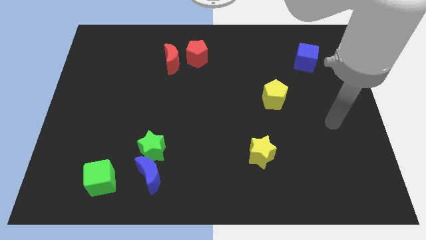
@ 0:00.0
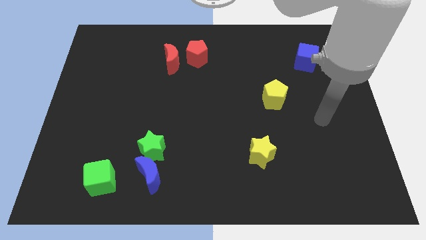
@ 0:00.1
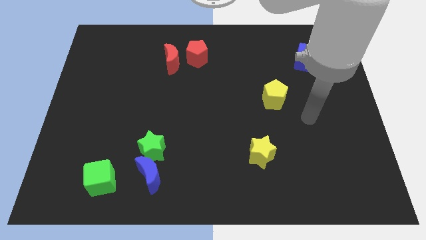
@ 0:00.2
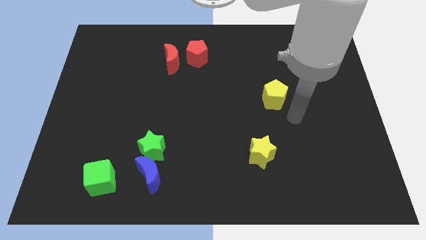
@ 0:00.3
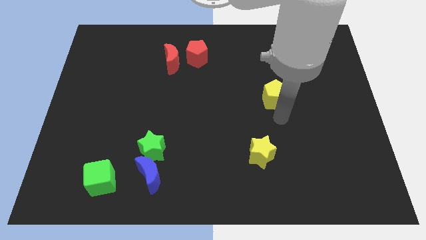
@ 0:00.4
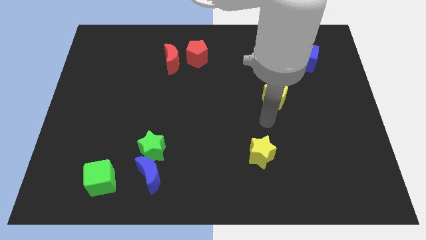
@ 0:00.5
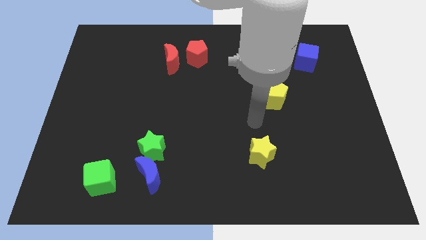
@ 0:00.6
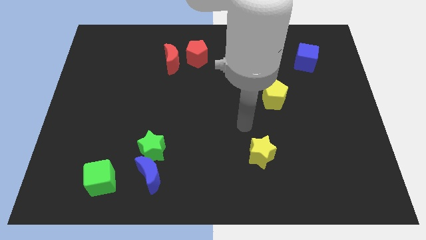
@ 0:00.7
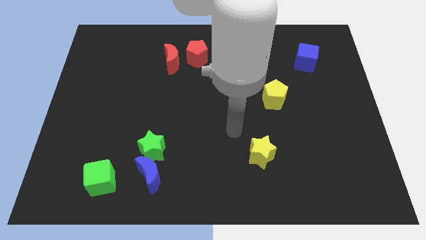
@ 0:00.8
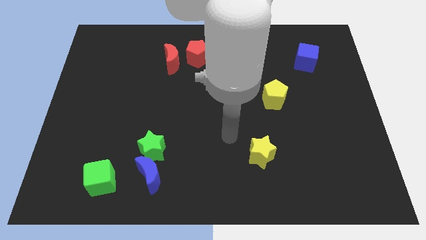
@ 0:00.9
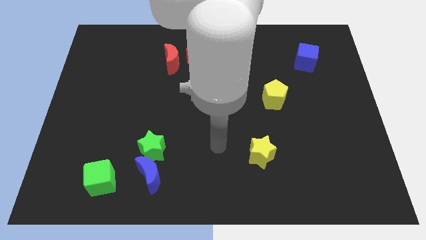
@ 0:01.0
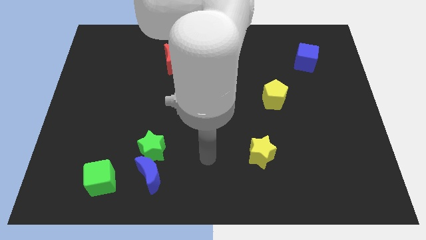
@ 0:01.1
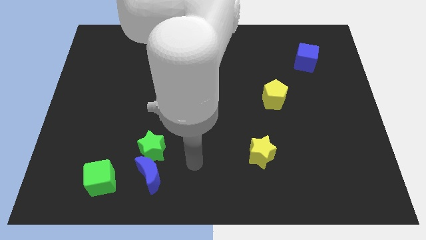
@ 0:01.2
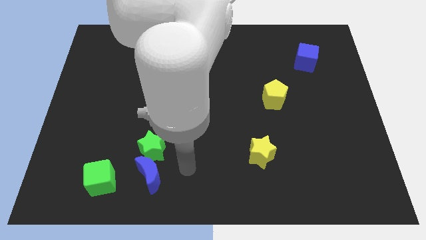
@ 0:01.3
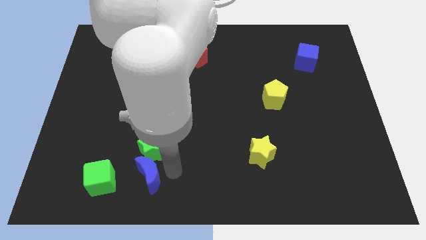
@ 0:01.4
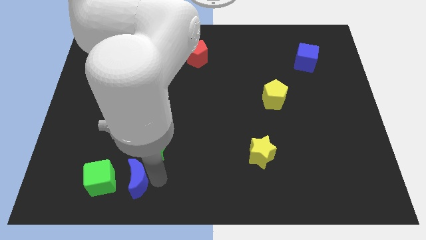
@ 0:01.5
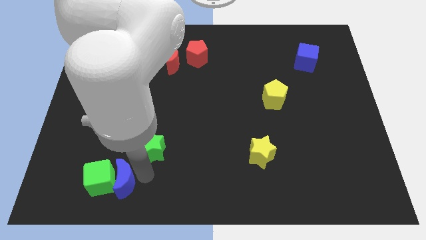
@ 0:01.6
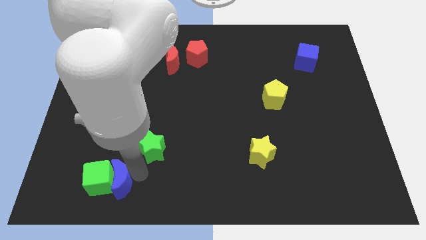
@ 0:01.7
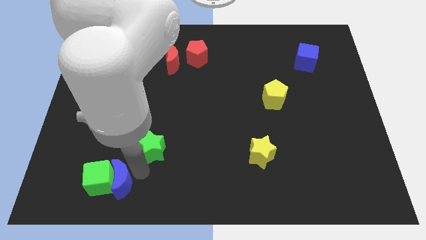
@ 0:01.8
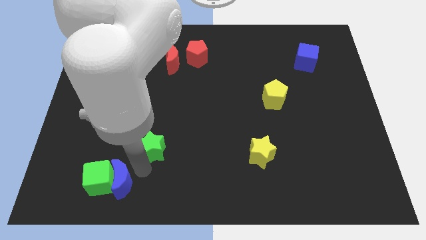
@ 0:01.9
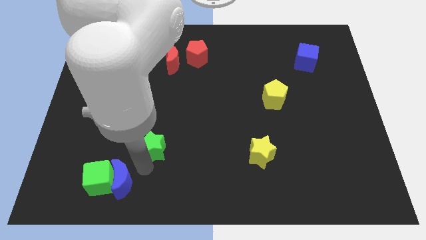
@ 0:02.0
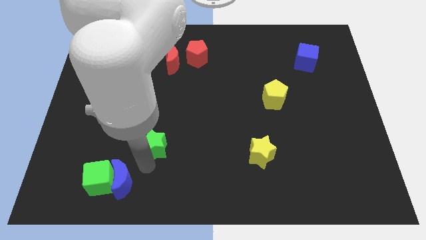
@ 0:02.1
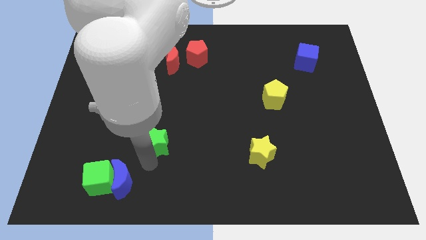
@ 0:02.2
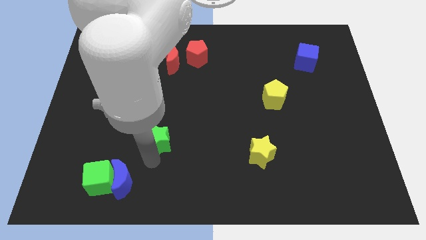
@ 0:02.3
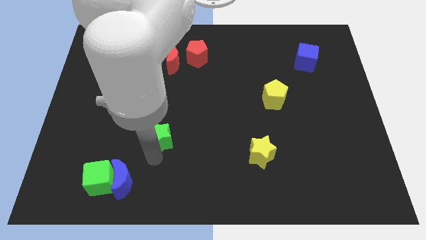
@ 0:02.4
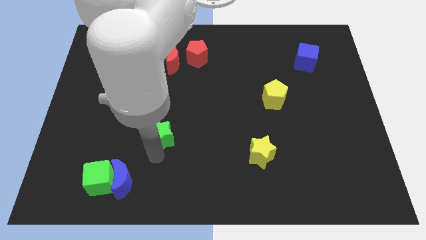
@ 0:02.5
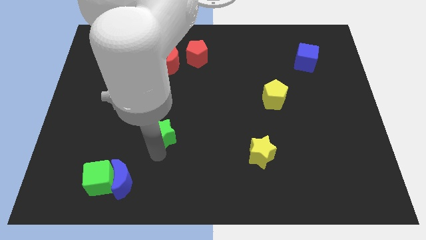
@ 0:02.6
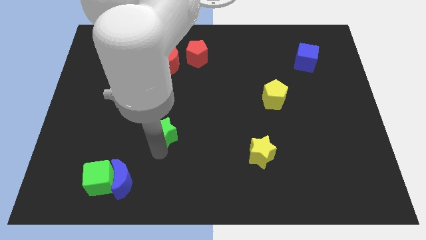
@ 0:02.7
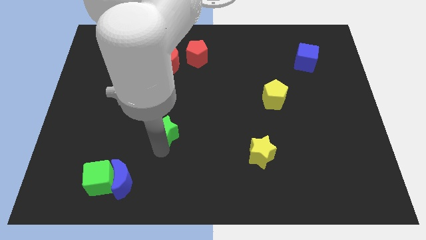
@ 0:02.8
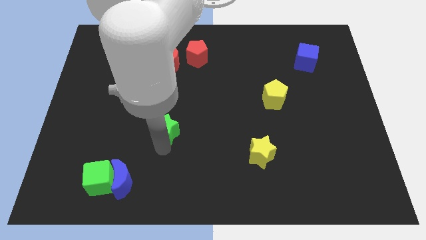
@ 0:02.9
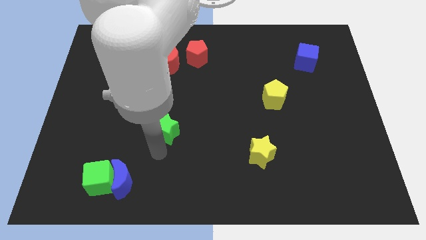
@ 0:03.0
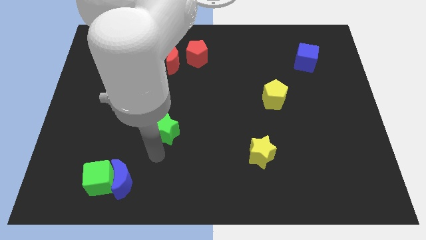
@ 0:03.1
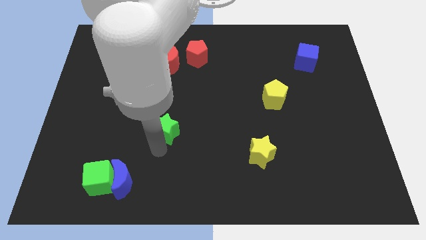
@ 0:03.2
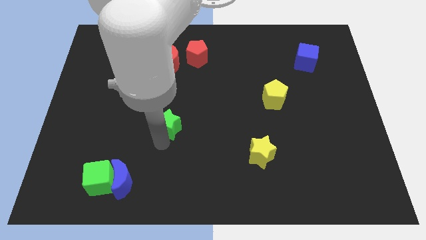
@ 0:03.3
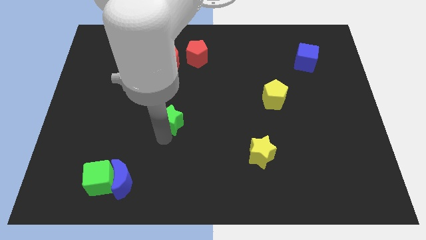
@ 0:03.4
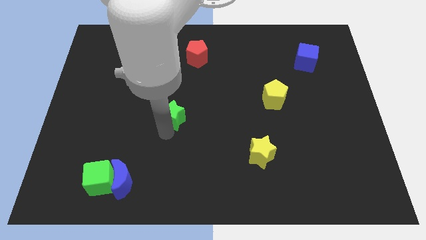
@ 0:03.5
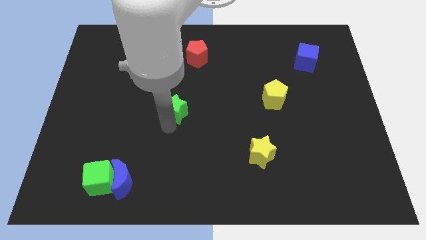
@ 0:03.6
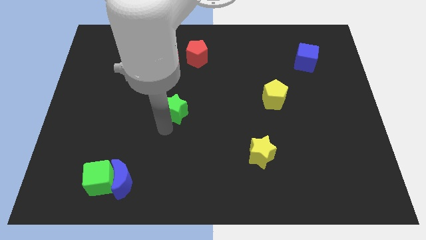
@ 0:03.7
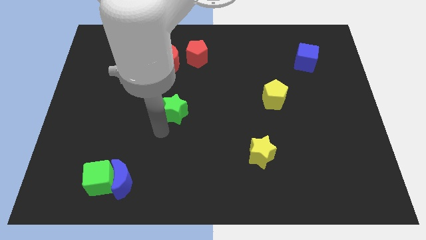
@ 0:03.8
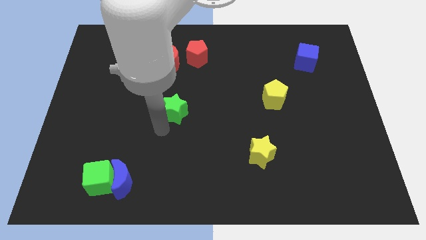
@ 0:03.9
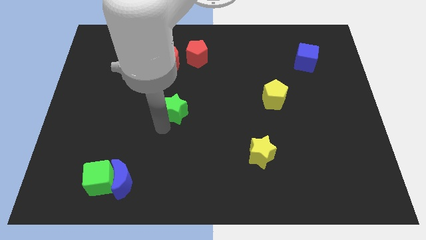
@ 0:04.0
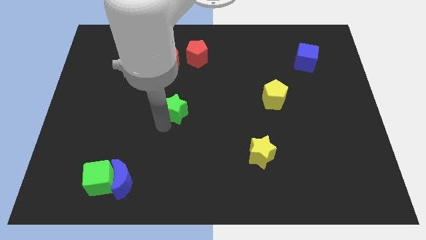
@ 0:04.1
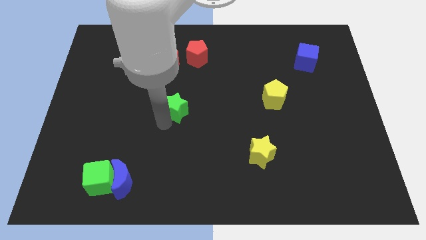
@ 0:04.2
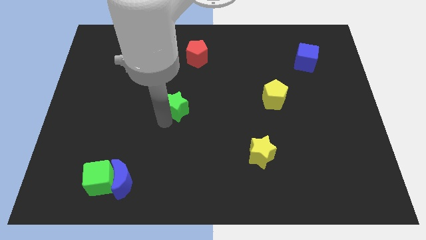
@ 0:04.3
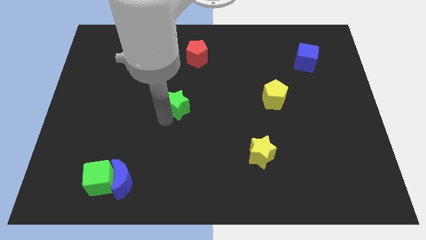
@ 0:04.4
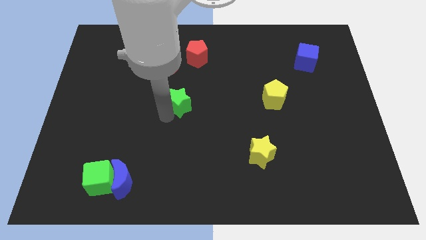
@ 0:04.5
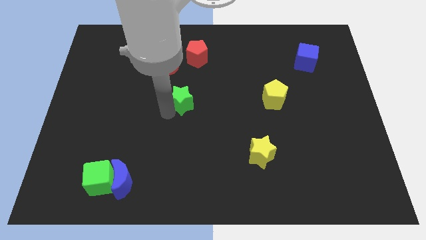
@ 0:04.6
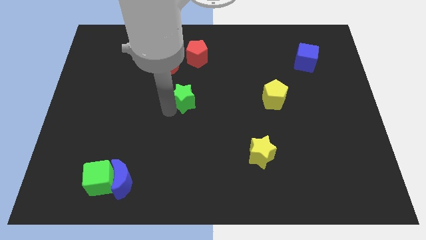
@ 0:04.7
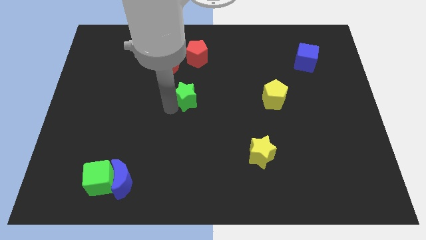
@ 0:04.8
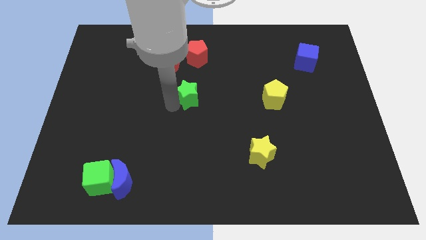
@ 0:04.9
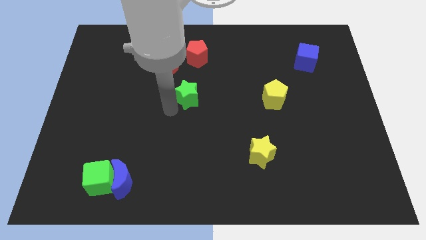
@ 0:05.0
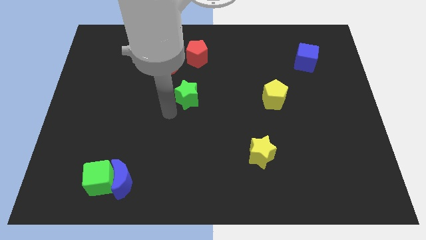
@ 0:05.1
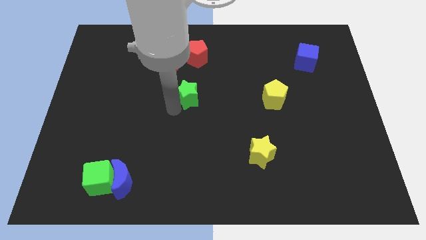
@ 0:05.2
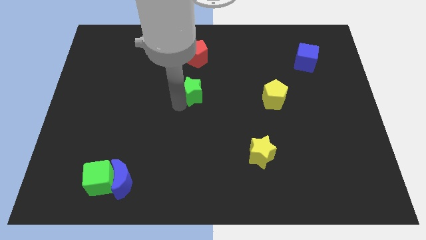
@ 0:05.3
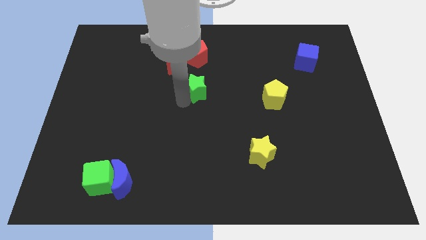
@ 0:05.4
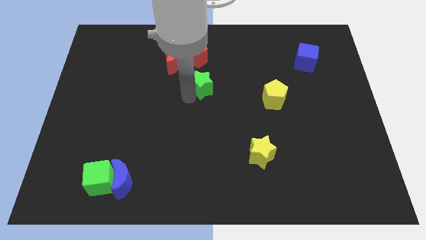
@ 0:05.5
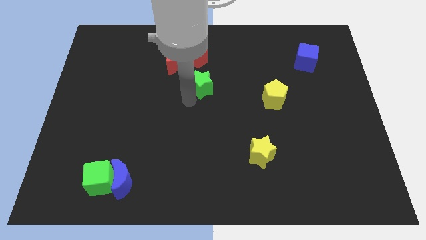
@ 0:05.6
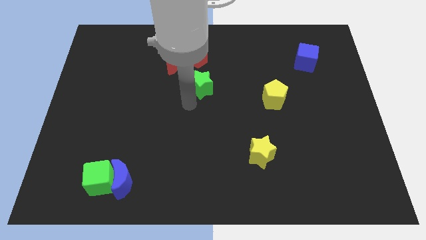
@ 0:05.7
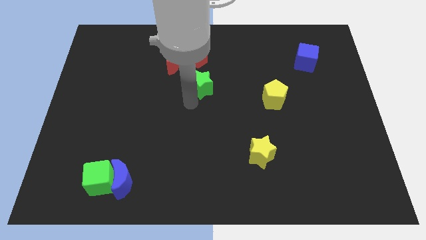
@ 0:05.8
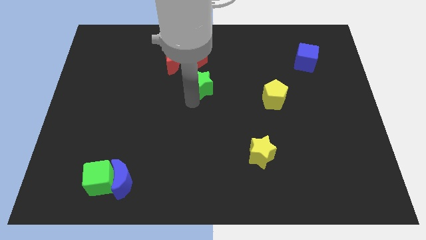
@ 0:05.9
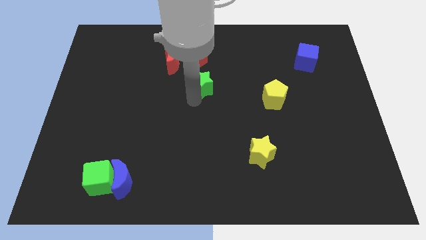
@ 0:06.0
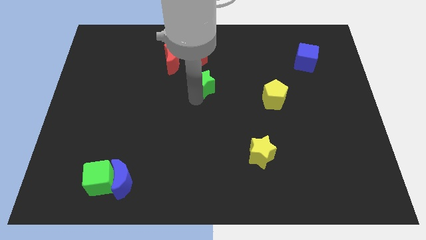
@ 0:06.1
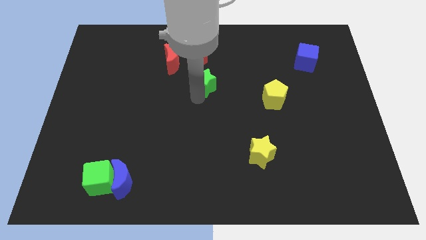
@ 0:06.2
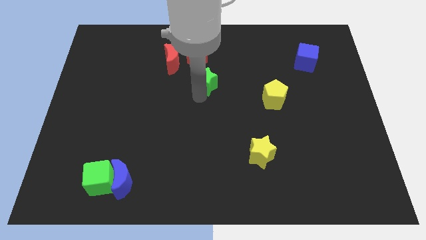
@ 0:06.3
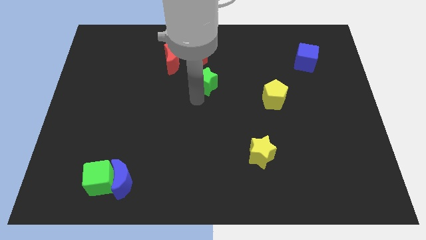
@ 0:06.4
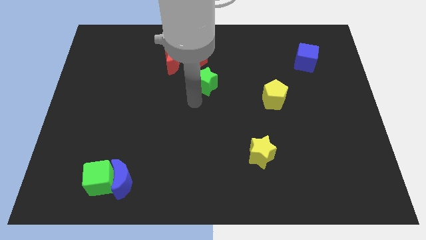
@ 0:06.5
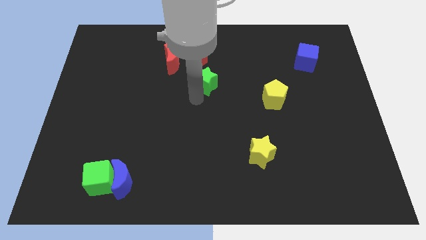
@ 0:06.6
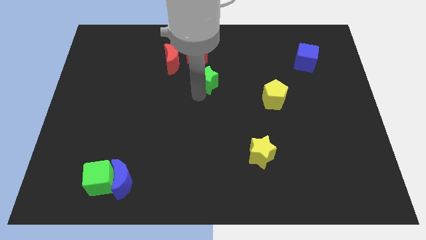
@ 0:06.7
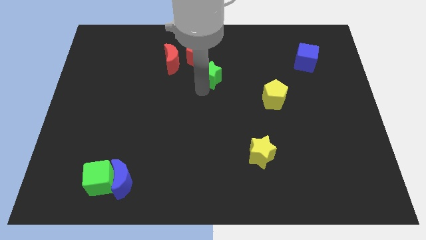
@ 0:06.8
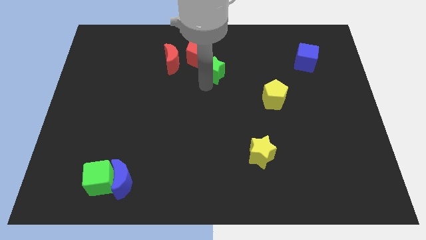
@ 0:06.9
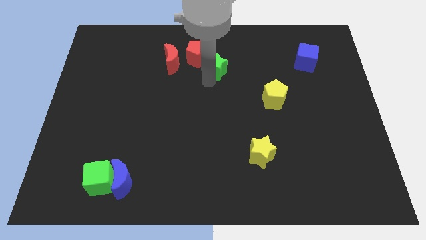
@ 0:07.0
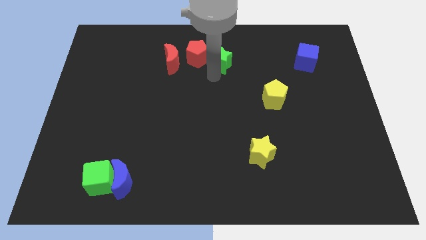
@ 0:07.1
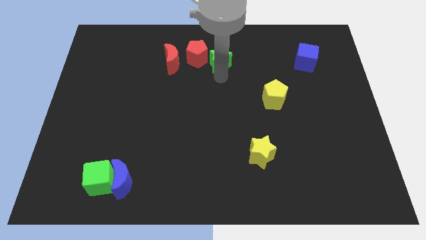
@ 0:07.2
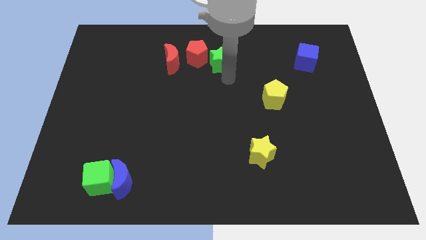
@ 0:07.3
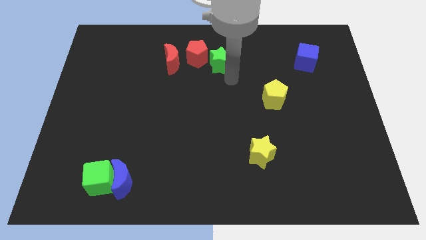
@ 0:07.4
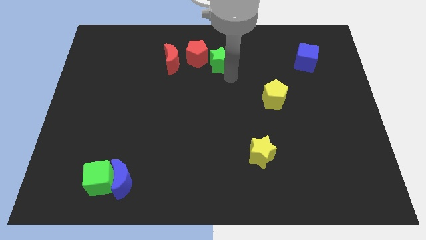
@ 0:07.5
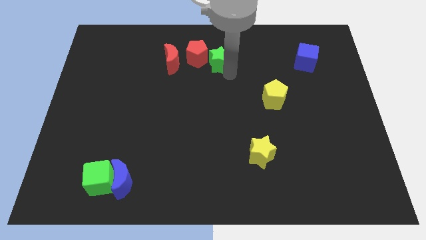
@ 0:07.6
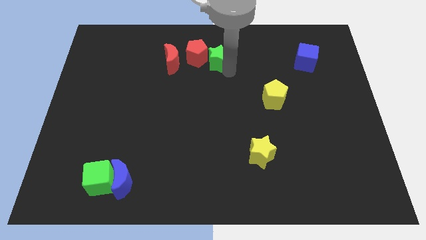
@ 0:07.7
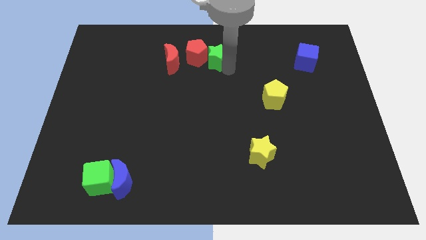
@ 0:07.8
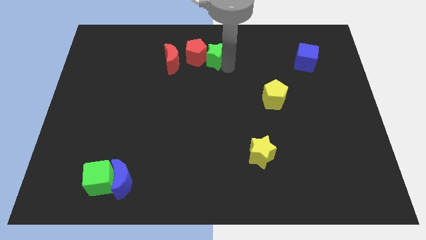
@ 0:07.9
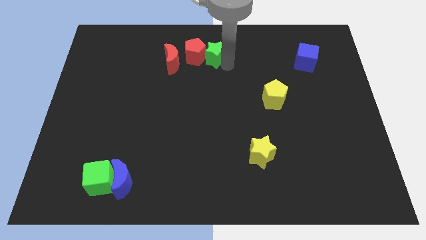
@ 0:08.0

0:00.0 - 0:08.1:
push the green star to the towards your base
